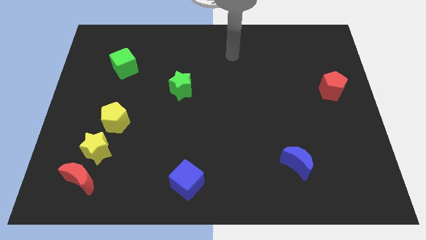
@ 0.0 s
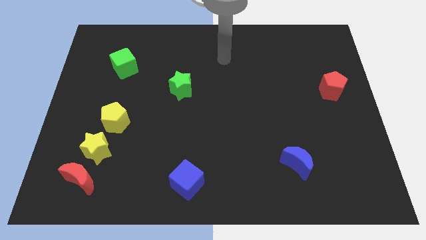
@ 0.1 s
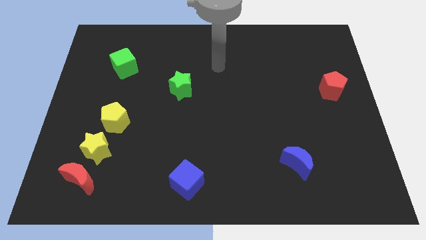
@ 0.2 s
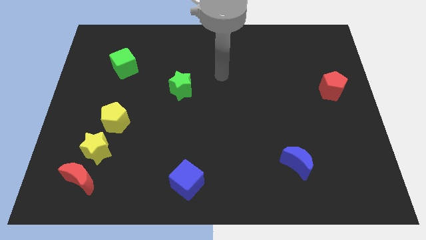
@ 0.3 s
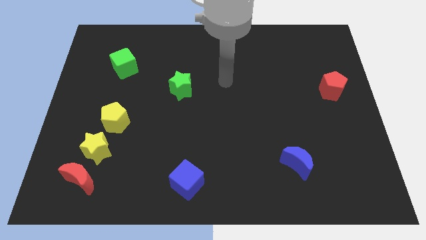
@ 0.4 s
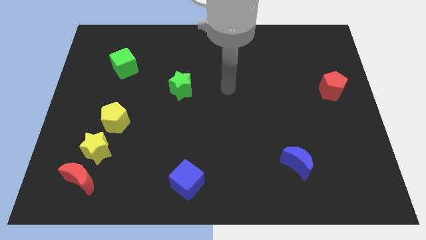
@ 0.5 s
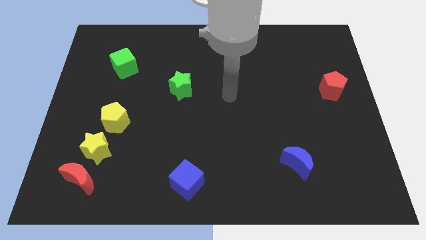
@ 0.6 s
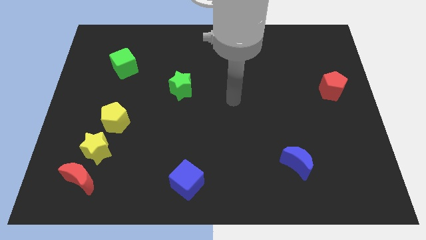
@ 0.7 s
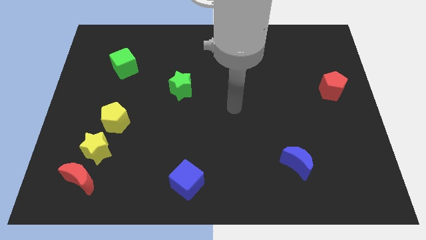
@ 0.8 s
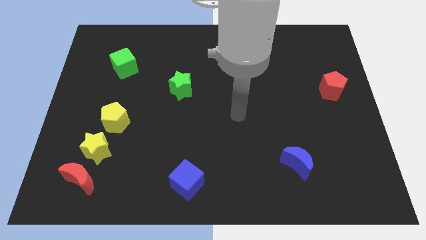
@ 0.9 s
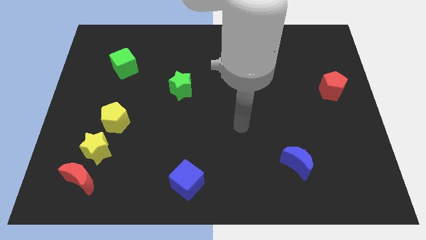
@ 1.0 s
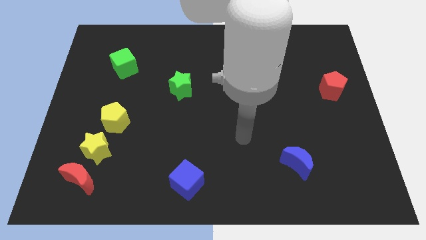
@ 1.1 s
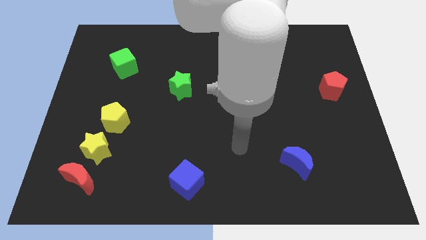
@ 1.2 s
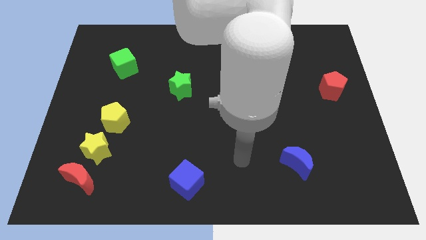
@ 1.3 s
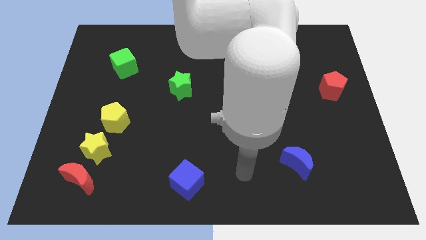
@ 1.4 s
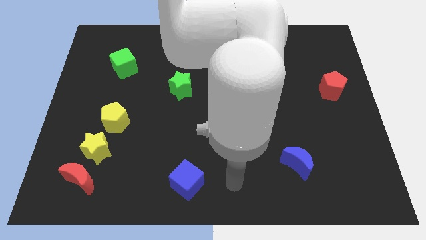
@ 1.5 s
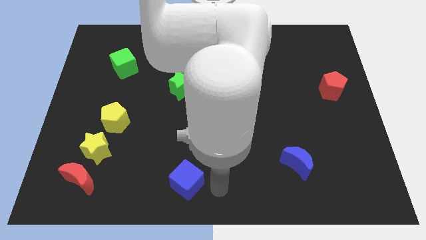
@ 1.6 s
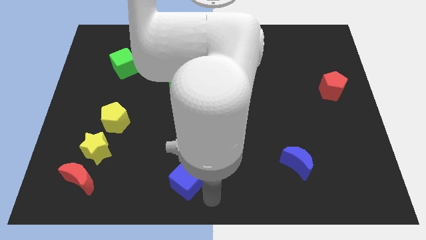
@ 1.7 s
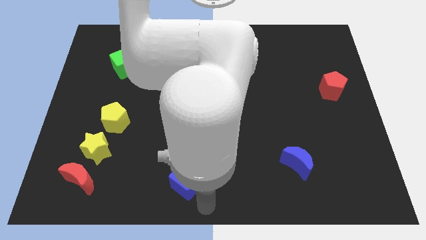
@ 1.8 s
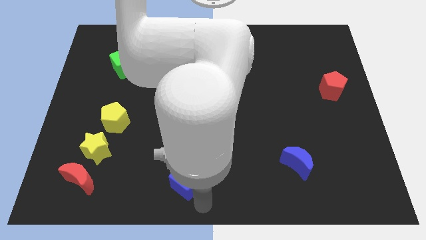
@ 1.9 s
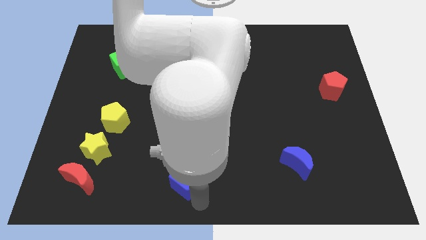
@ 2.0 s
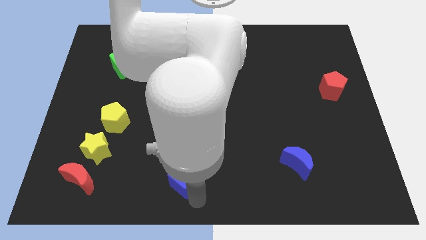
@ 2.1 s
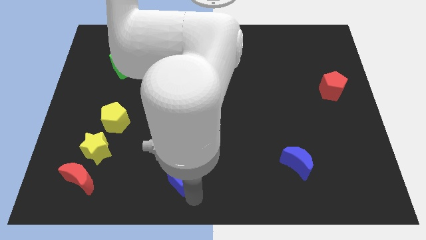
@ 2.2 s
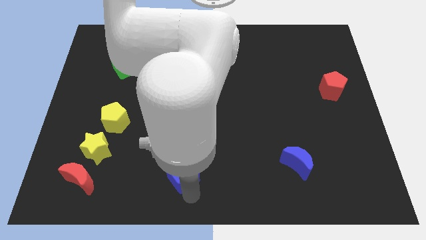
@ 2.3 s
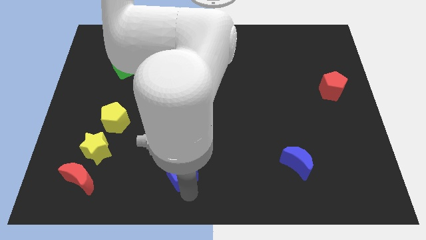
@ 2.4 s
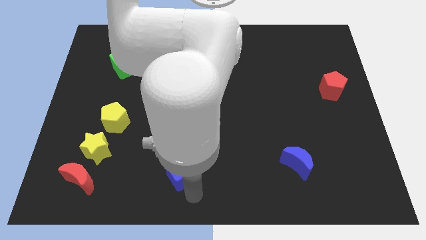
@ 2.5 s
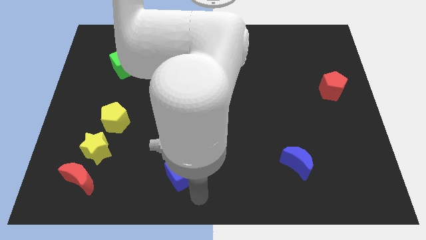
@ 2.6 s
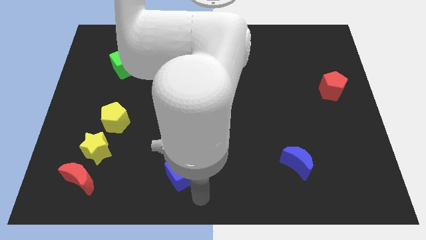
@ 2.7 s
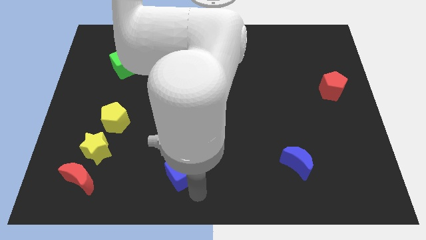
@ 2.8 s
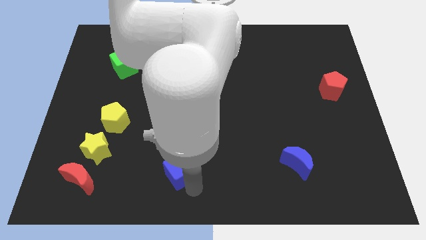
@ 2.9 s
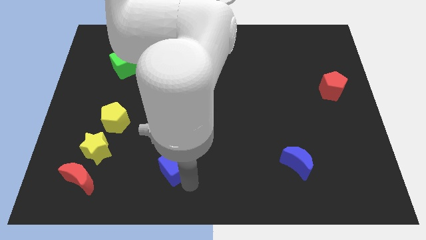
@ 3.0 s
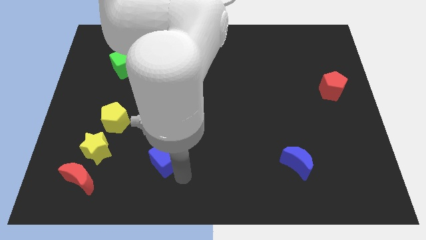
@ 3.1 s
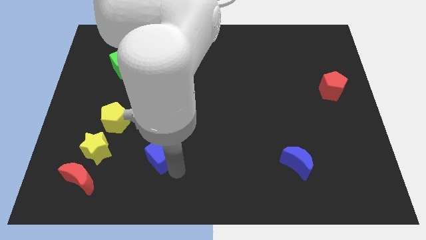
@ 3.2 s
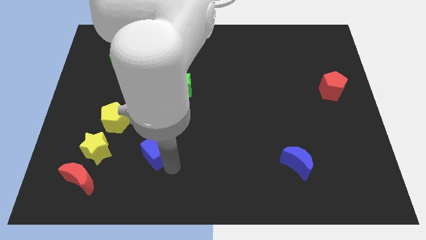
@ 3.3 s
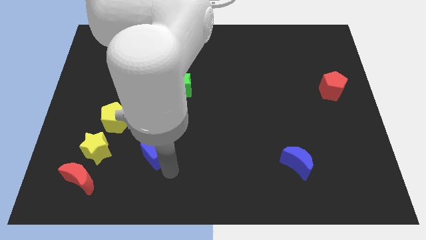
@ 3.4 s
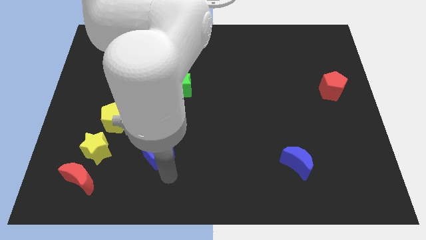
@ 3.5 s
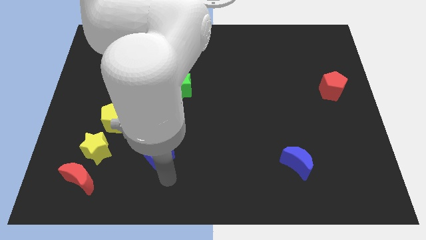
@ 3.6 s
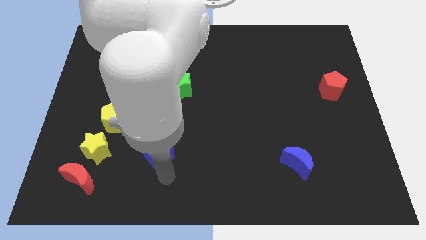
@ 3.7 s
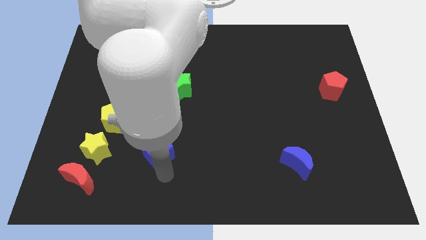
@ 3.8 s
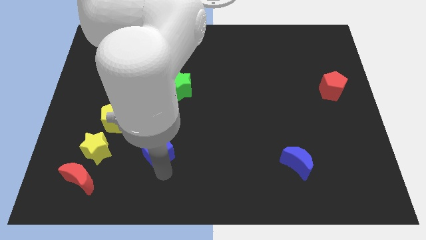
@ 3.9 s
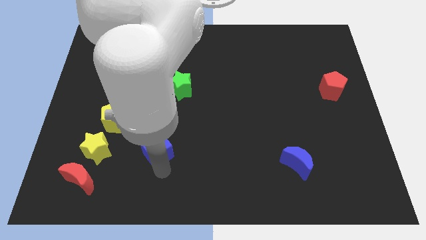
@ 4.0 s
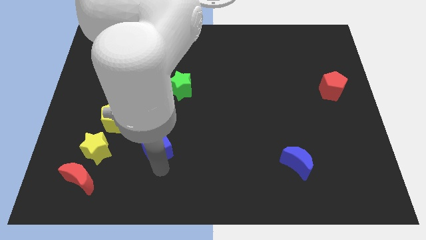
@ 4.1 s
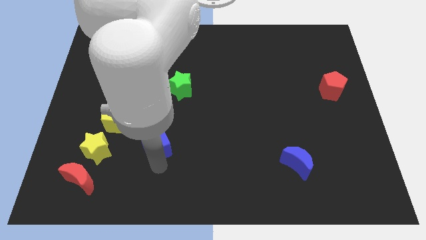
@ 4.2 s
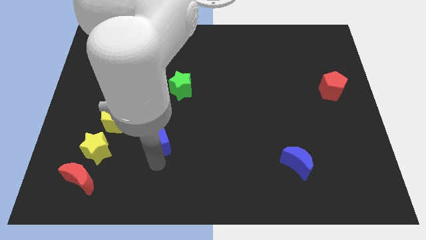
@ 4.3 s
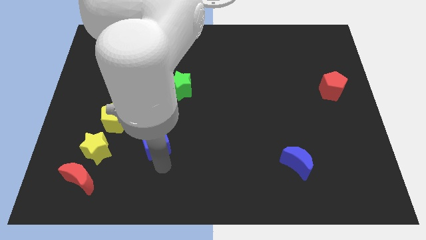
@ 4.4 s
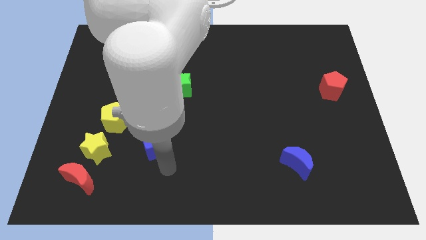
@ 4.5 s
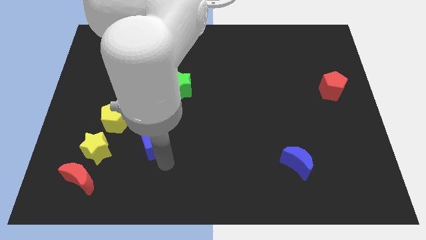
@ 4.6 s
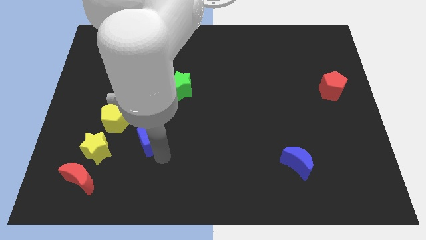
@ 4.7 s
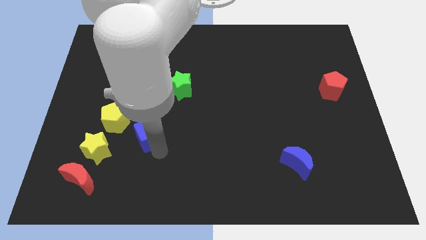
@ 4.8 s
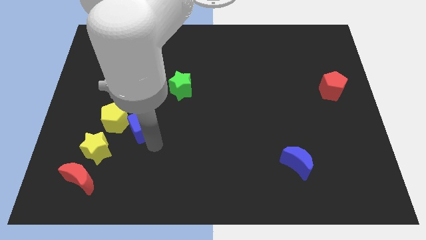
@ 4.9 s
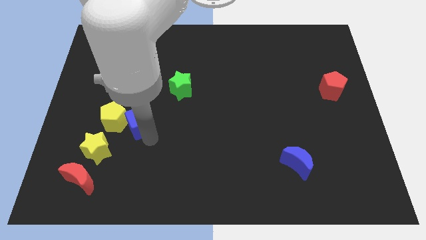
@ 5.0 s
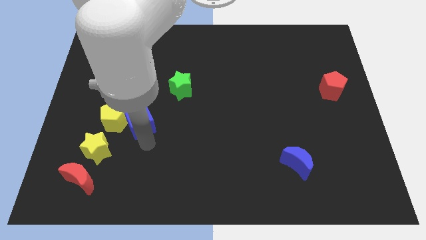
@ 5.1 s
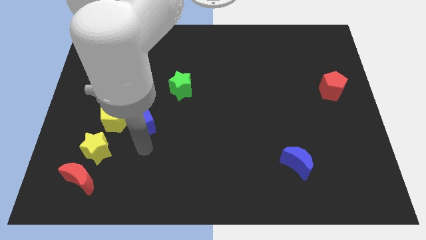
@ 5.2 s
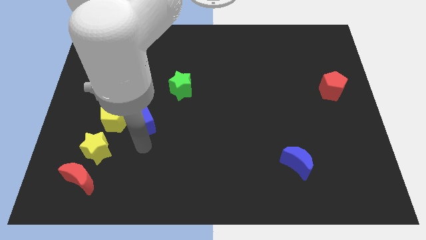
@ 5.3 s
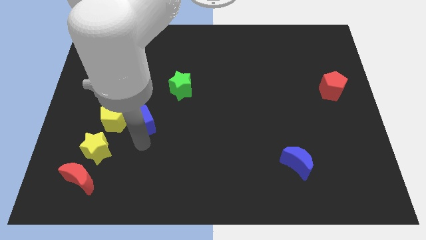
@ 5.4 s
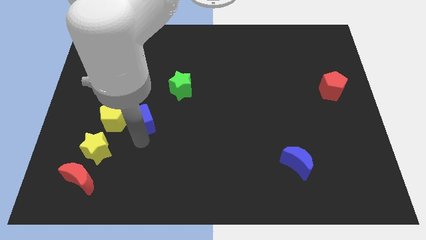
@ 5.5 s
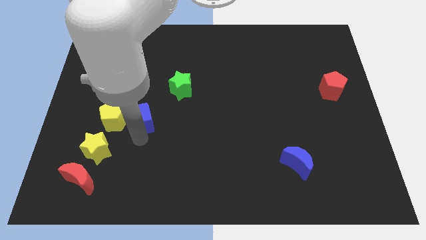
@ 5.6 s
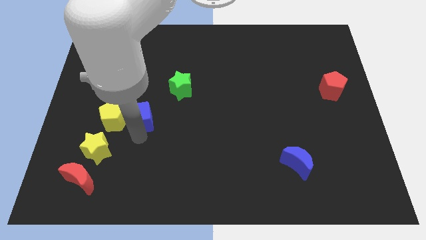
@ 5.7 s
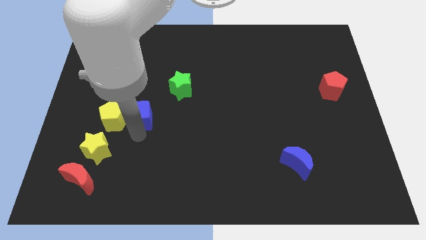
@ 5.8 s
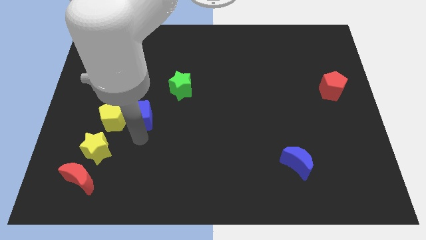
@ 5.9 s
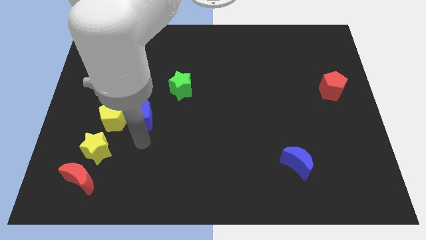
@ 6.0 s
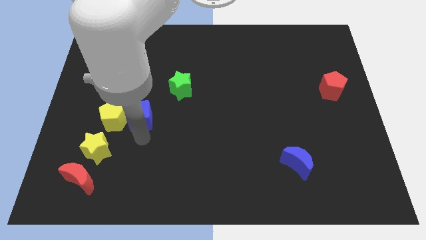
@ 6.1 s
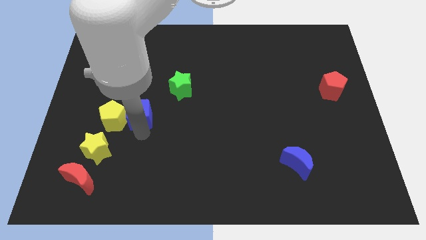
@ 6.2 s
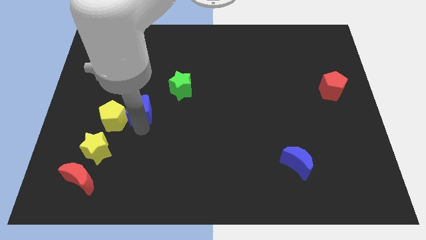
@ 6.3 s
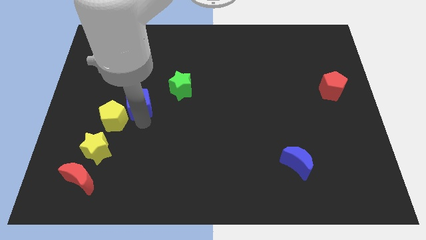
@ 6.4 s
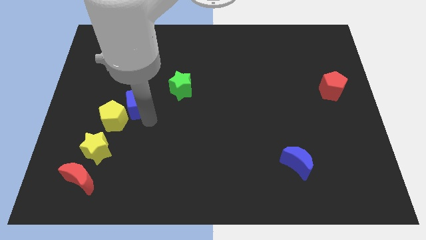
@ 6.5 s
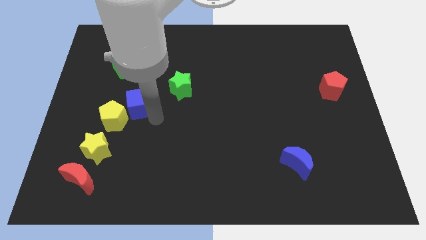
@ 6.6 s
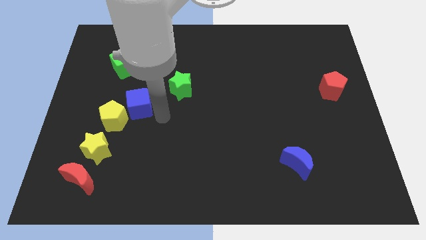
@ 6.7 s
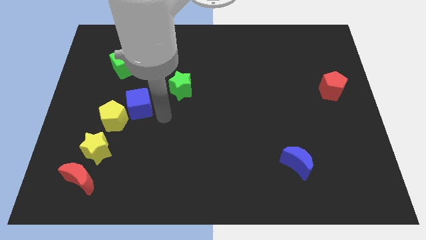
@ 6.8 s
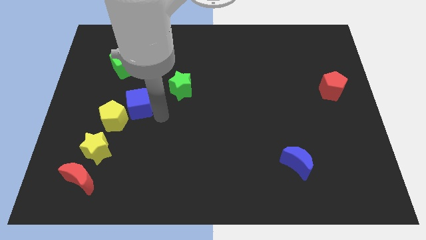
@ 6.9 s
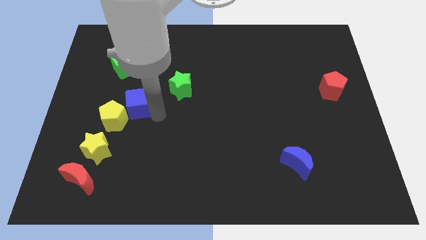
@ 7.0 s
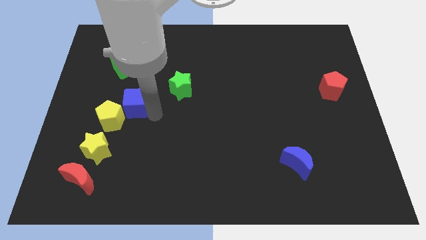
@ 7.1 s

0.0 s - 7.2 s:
move the blue cube to the bottom of the green cube
